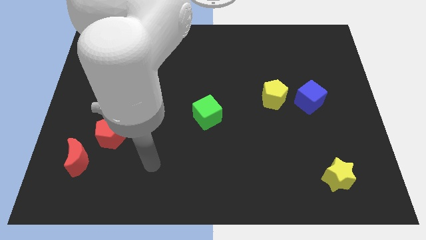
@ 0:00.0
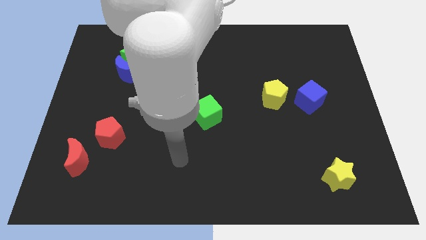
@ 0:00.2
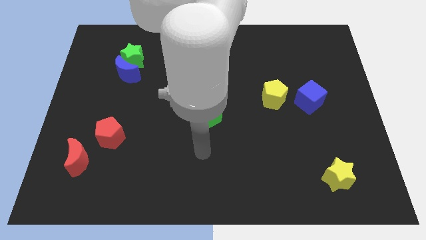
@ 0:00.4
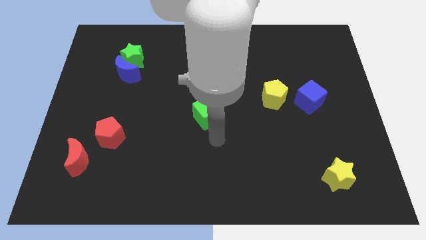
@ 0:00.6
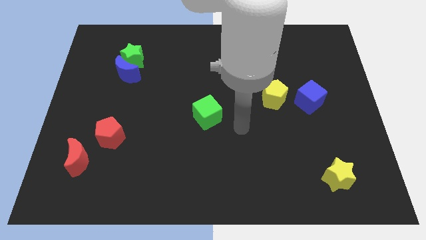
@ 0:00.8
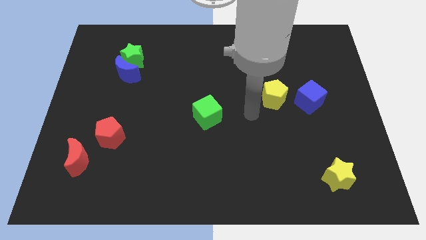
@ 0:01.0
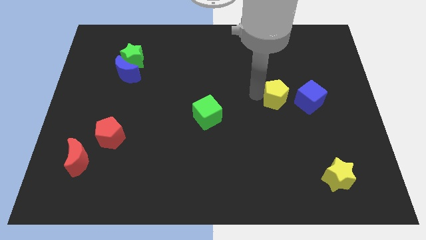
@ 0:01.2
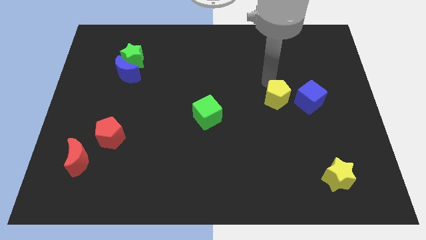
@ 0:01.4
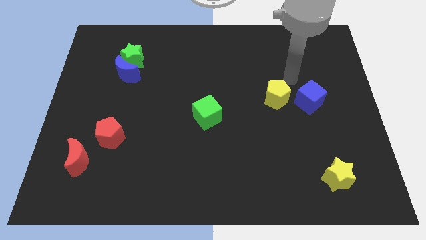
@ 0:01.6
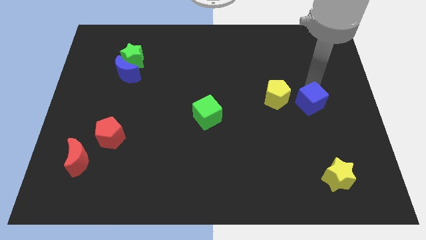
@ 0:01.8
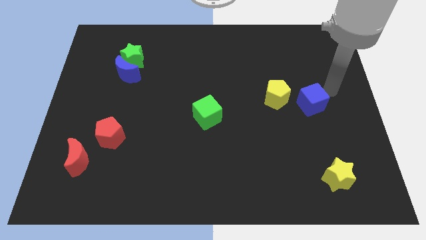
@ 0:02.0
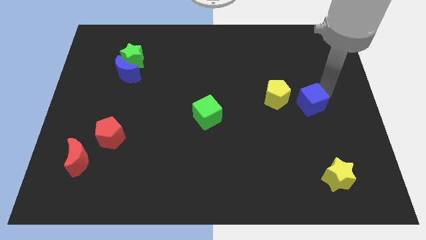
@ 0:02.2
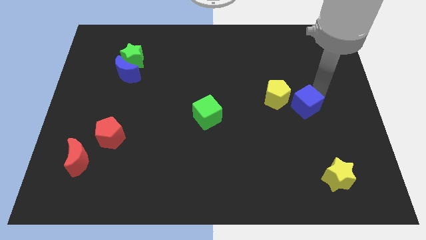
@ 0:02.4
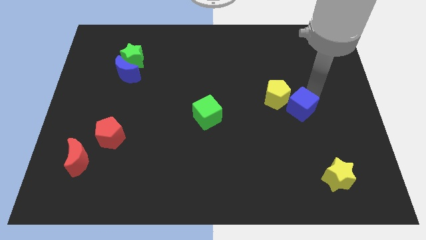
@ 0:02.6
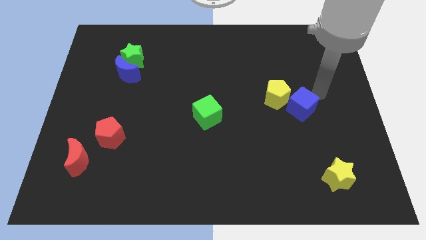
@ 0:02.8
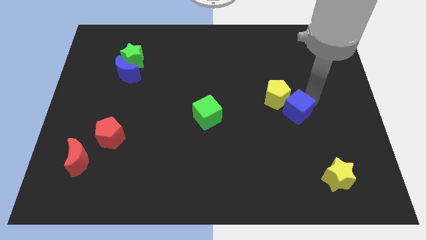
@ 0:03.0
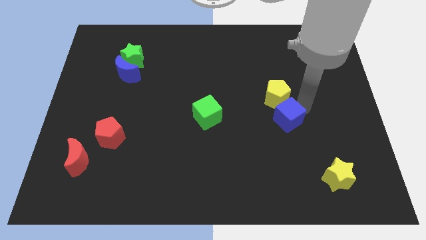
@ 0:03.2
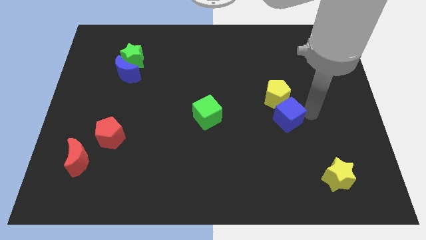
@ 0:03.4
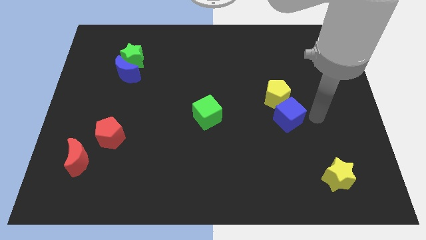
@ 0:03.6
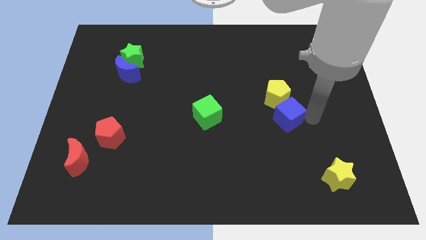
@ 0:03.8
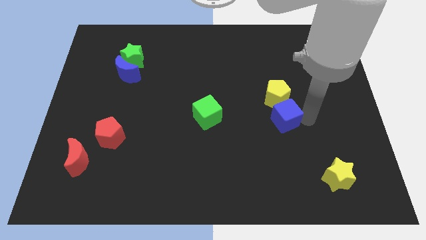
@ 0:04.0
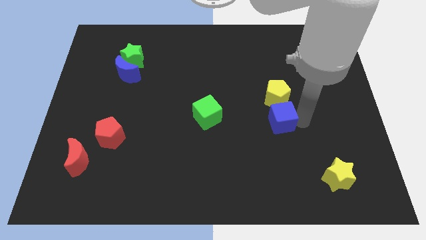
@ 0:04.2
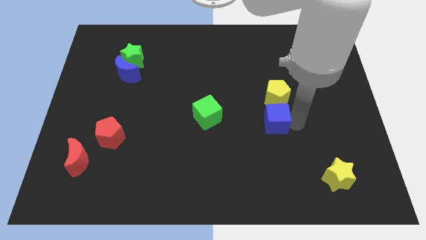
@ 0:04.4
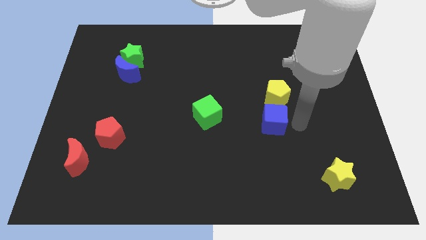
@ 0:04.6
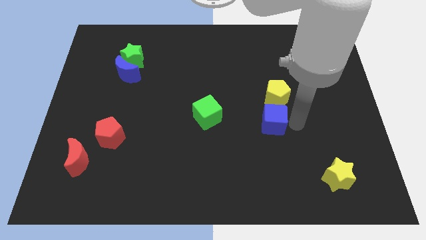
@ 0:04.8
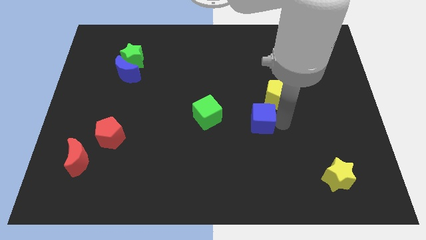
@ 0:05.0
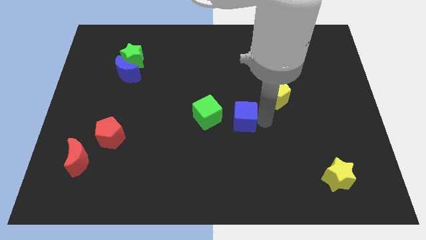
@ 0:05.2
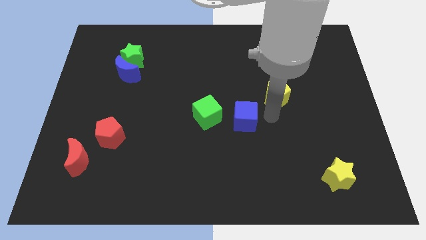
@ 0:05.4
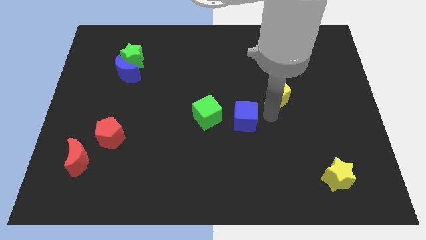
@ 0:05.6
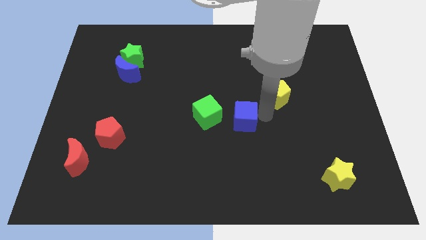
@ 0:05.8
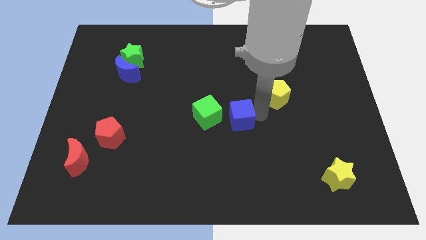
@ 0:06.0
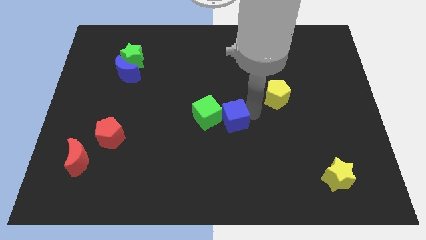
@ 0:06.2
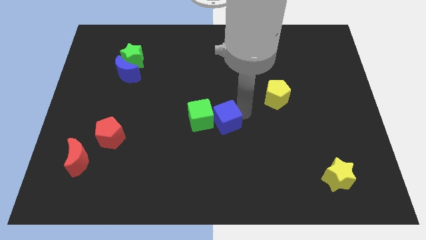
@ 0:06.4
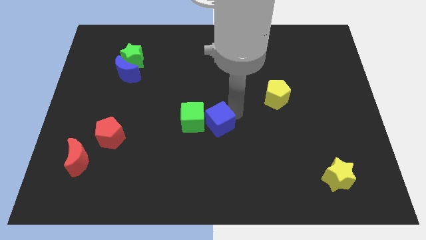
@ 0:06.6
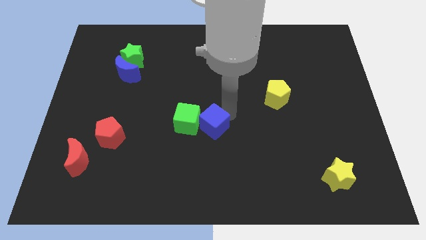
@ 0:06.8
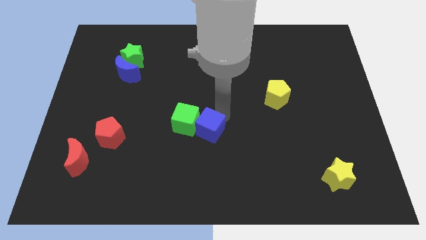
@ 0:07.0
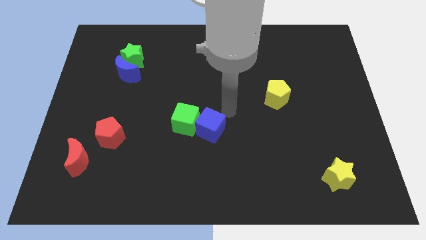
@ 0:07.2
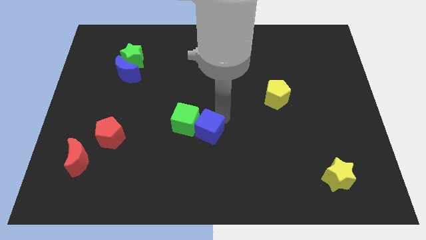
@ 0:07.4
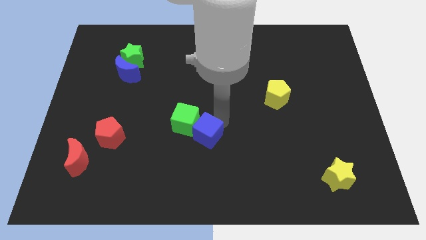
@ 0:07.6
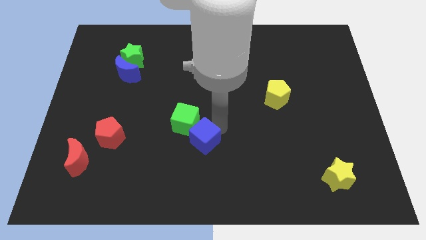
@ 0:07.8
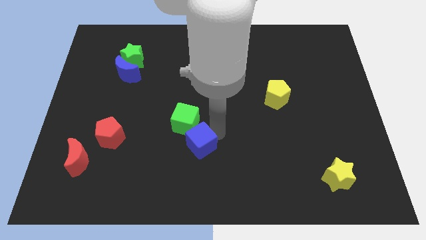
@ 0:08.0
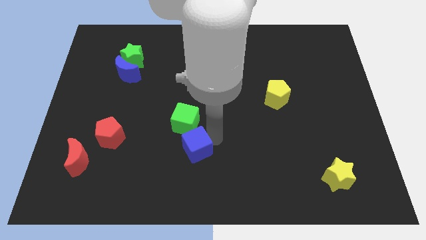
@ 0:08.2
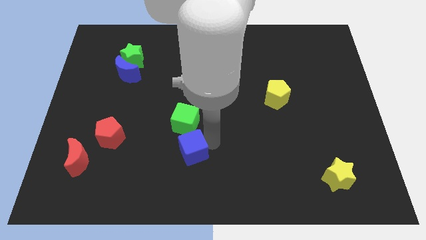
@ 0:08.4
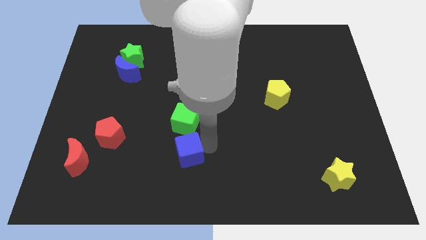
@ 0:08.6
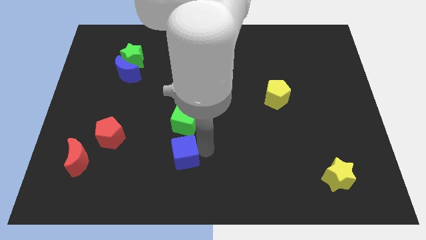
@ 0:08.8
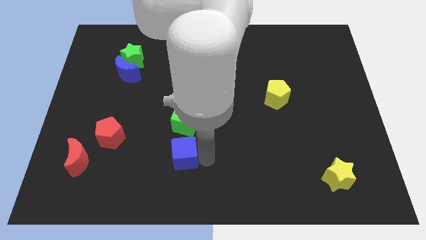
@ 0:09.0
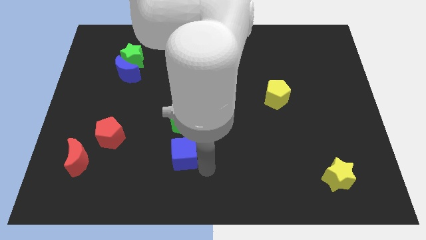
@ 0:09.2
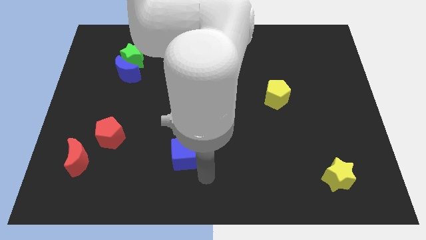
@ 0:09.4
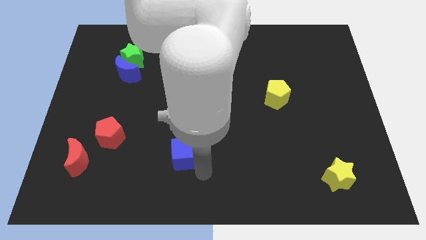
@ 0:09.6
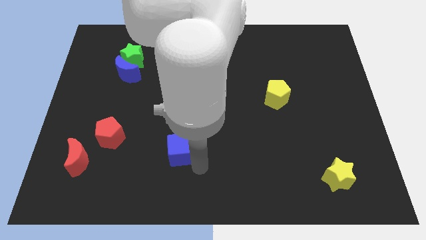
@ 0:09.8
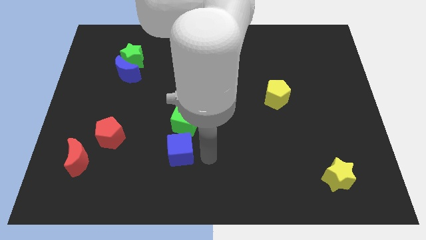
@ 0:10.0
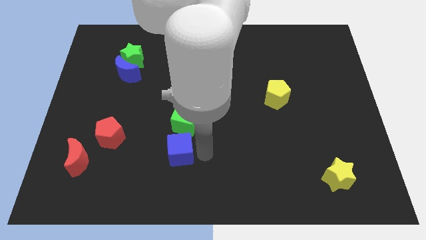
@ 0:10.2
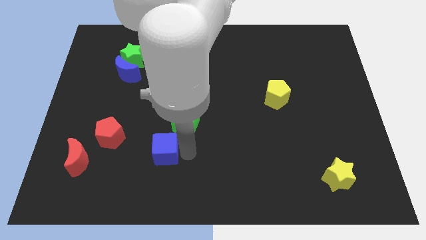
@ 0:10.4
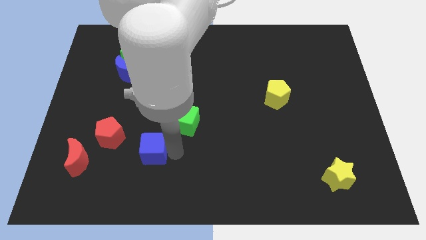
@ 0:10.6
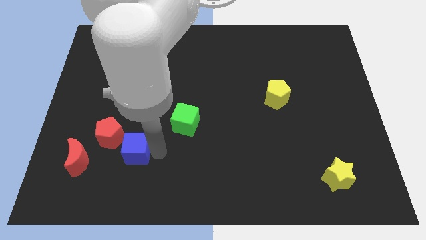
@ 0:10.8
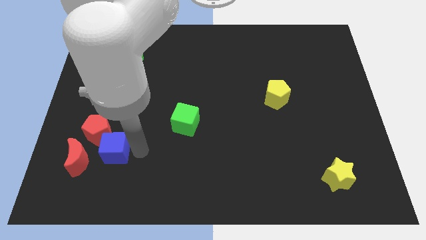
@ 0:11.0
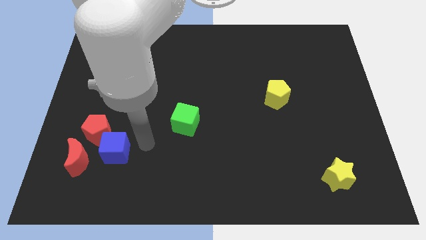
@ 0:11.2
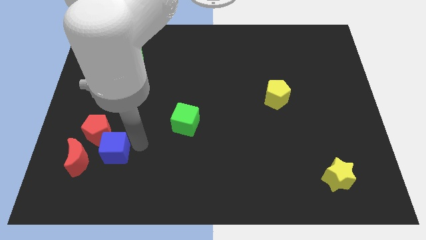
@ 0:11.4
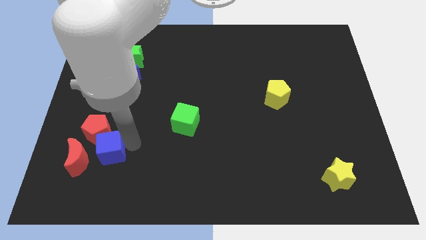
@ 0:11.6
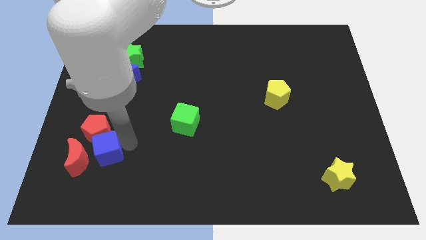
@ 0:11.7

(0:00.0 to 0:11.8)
move the blue cube next to the red moon
